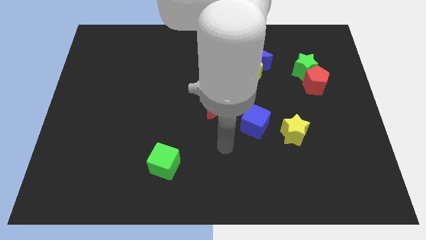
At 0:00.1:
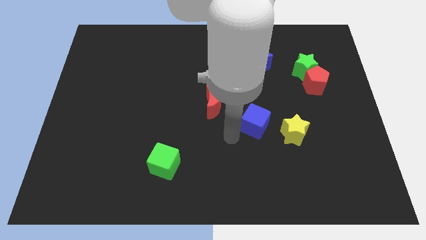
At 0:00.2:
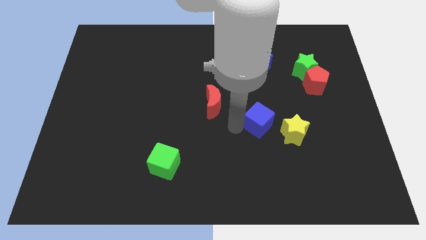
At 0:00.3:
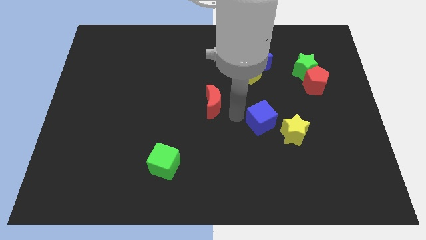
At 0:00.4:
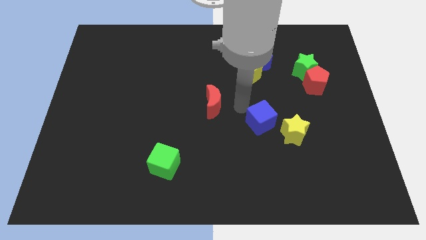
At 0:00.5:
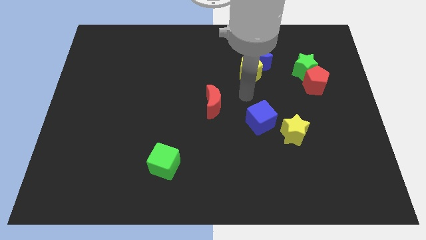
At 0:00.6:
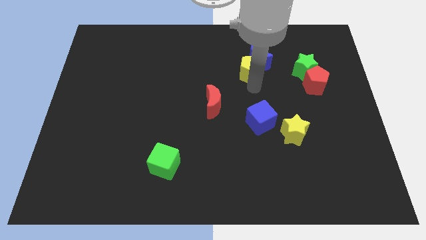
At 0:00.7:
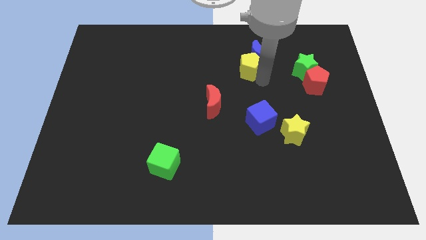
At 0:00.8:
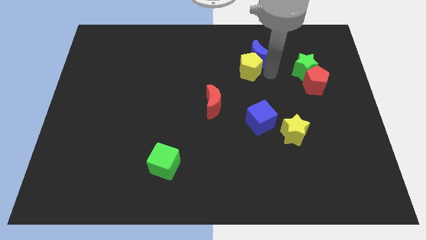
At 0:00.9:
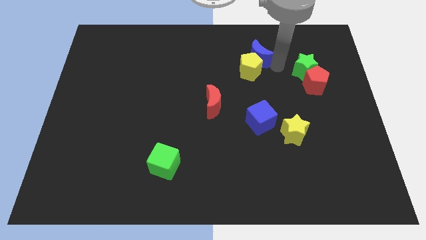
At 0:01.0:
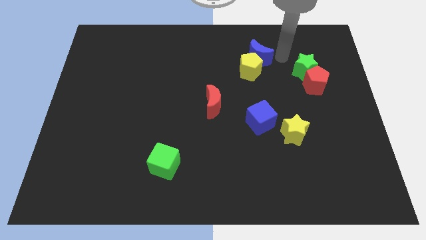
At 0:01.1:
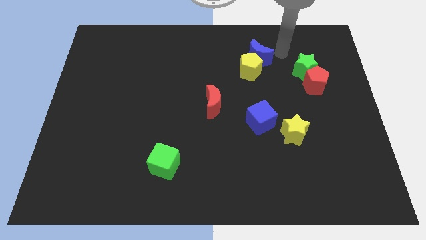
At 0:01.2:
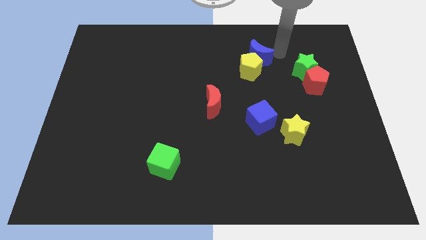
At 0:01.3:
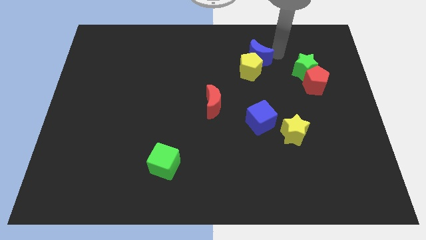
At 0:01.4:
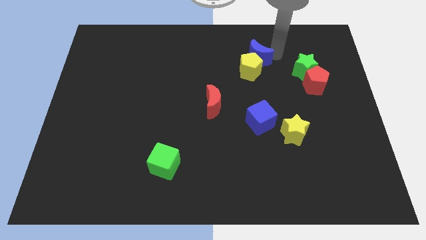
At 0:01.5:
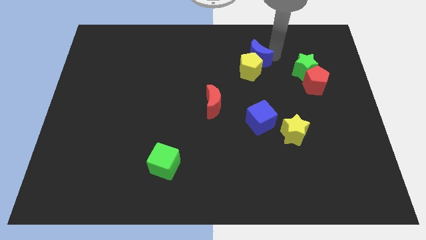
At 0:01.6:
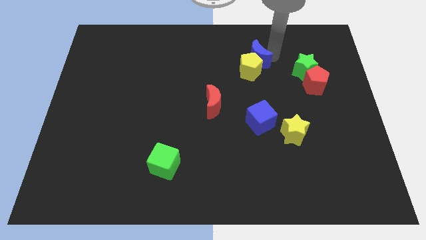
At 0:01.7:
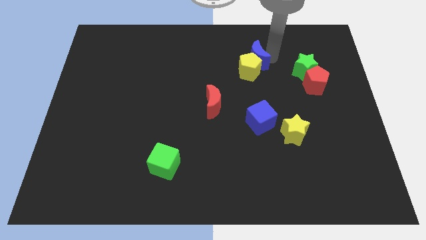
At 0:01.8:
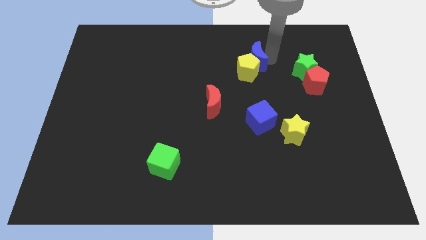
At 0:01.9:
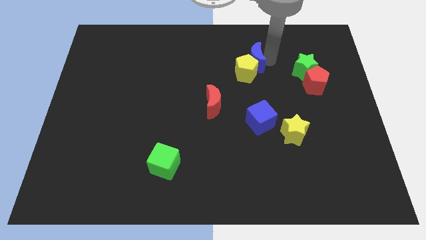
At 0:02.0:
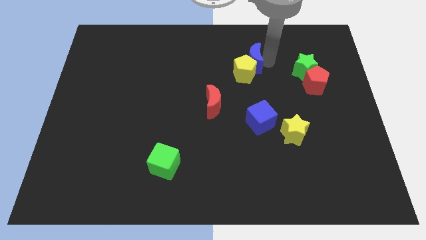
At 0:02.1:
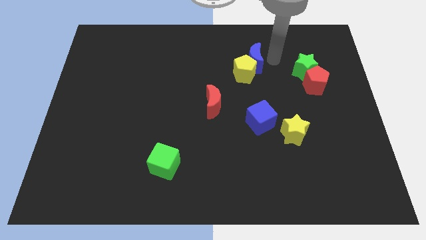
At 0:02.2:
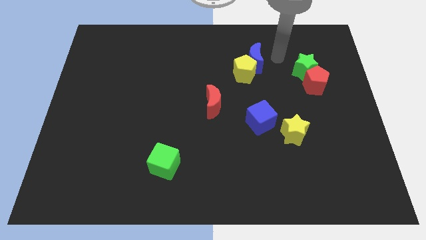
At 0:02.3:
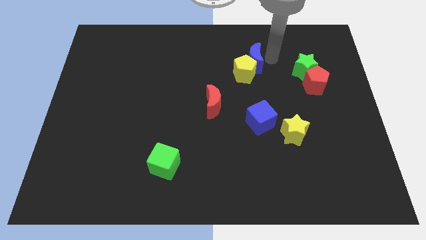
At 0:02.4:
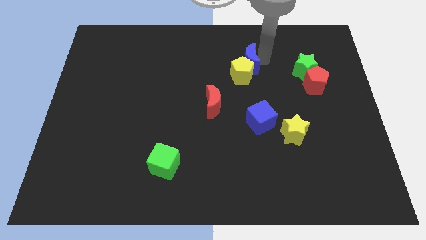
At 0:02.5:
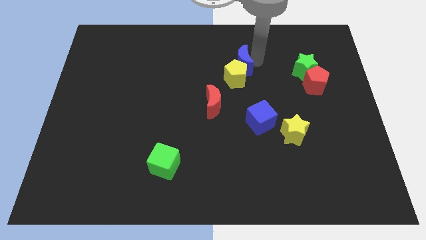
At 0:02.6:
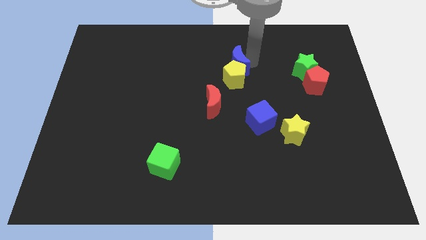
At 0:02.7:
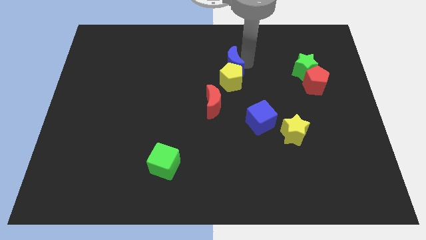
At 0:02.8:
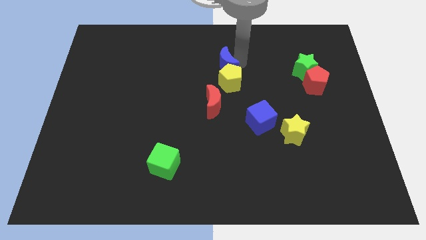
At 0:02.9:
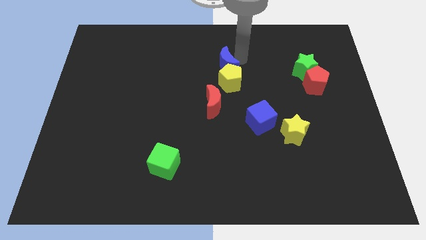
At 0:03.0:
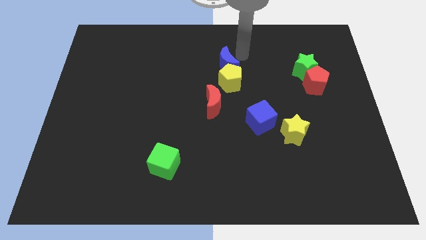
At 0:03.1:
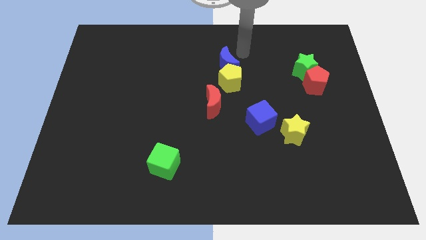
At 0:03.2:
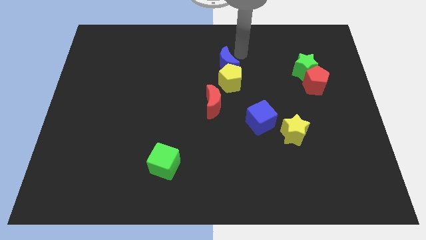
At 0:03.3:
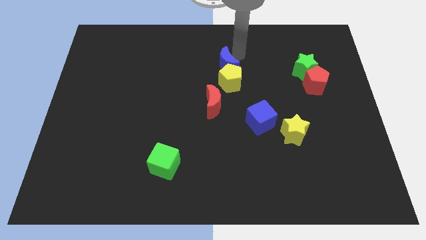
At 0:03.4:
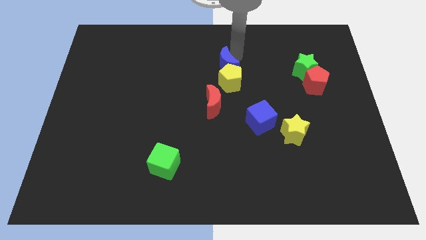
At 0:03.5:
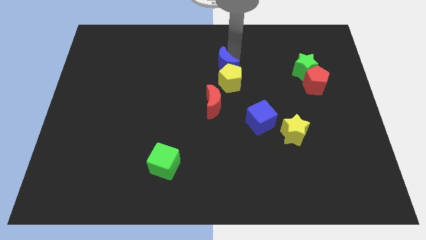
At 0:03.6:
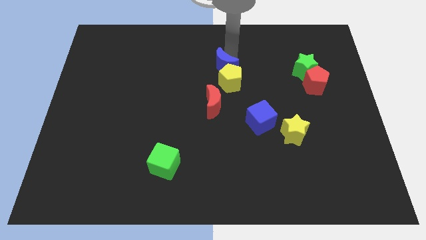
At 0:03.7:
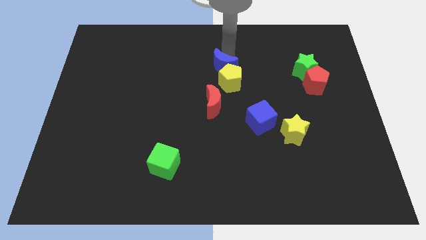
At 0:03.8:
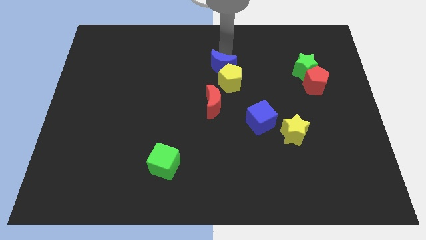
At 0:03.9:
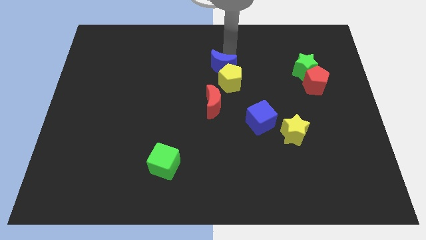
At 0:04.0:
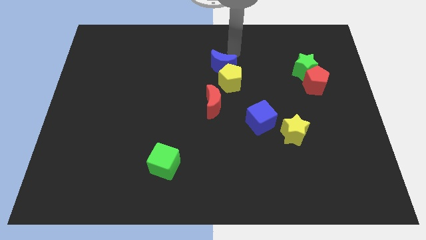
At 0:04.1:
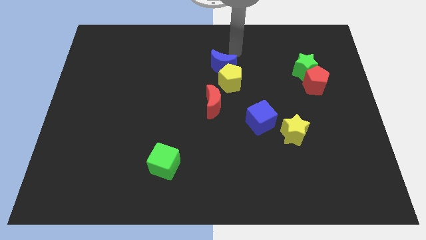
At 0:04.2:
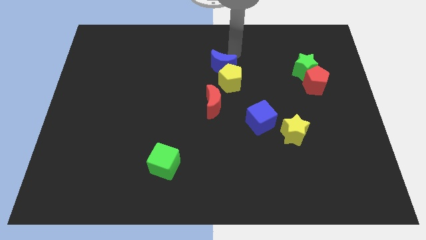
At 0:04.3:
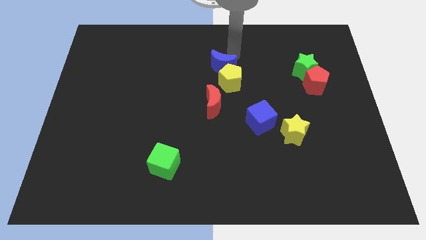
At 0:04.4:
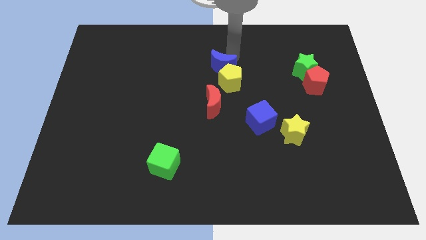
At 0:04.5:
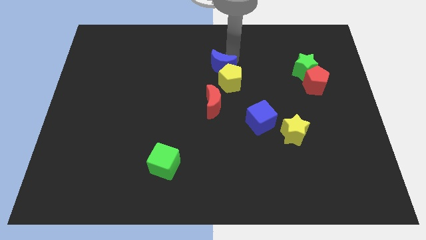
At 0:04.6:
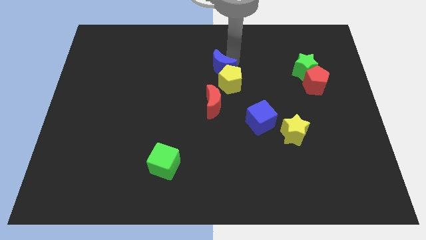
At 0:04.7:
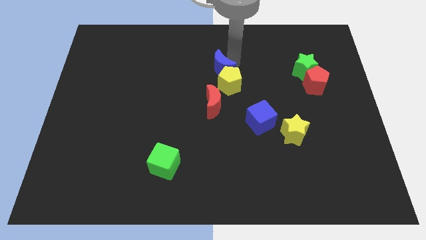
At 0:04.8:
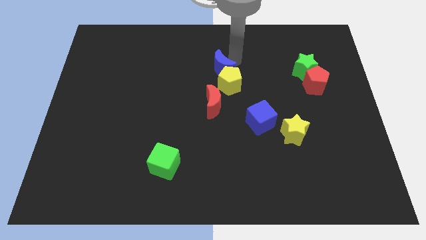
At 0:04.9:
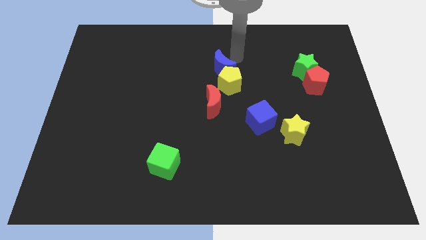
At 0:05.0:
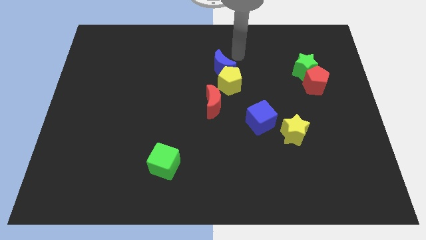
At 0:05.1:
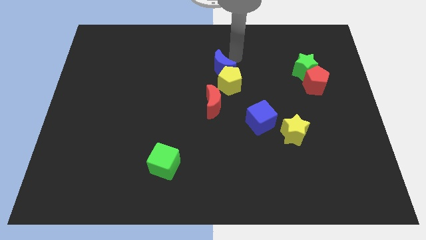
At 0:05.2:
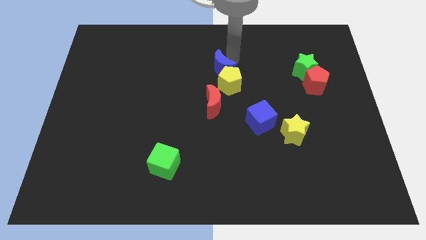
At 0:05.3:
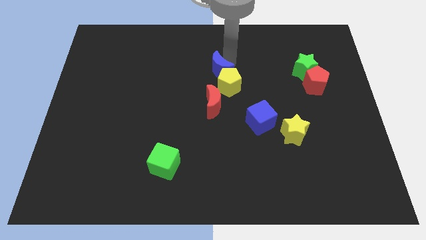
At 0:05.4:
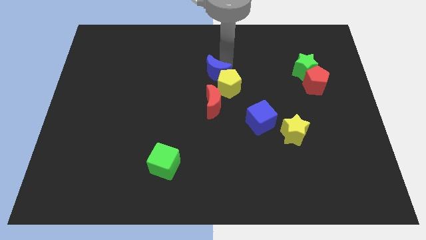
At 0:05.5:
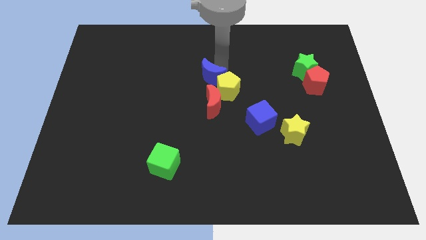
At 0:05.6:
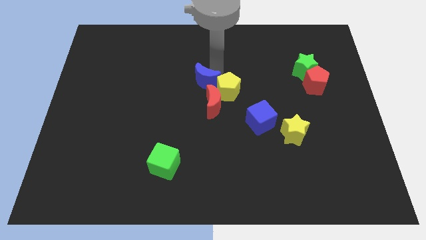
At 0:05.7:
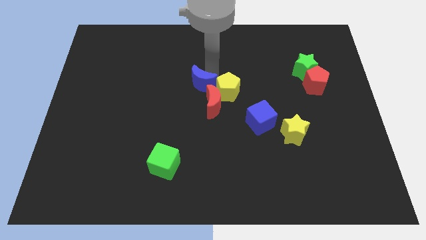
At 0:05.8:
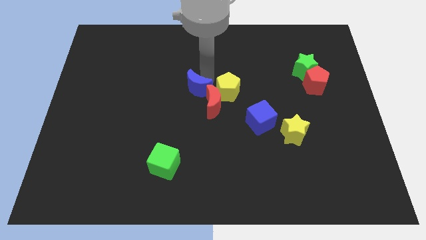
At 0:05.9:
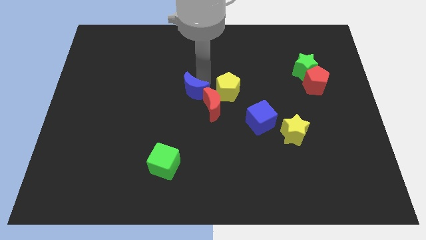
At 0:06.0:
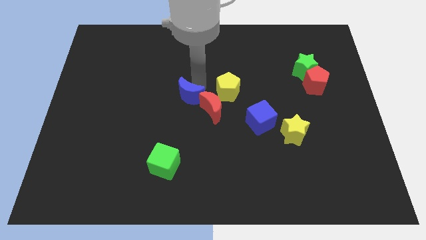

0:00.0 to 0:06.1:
slide the blue moon downwards and then to the left

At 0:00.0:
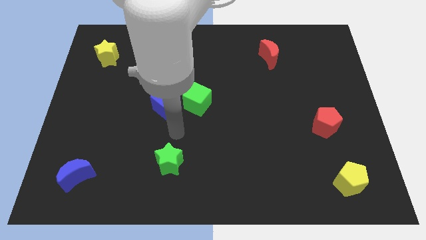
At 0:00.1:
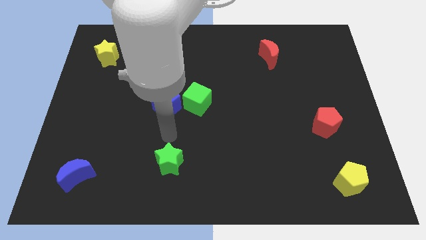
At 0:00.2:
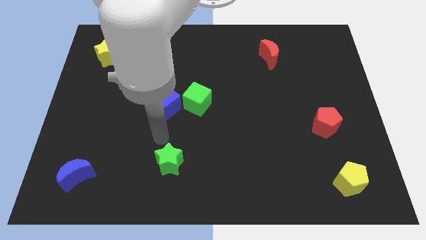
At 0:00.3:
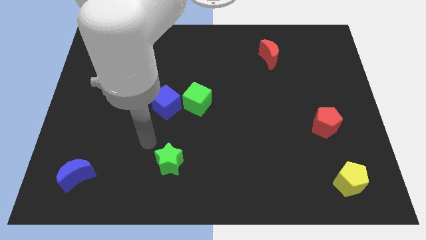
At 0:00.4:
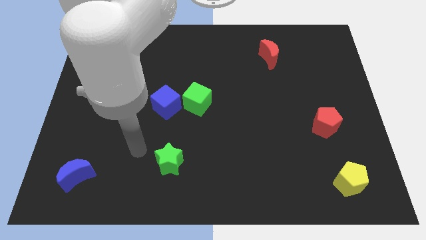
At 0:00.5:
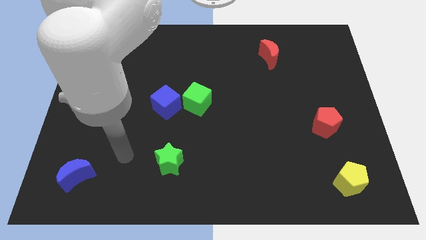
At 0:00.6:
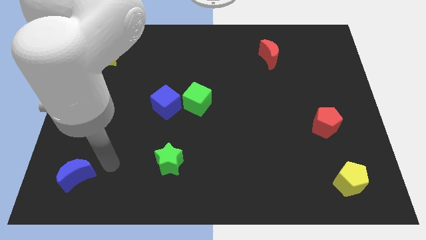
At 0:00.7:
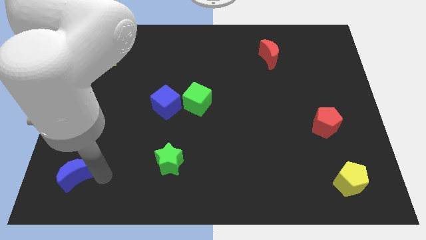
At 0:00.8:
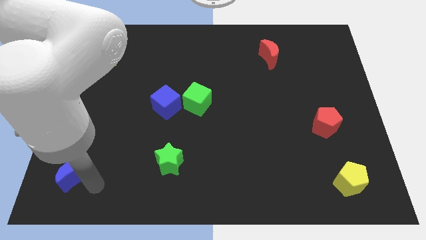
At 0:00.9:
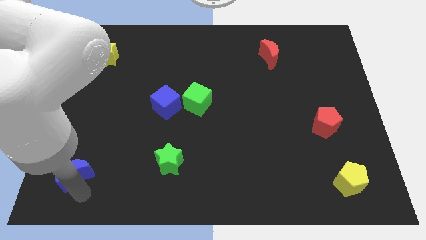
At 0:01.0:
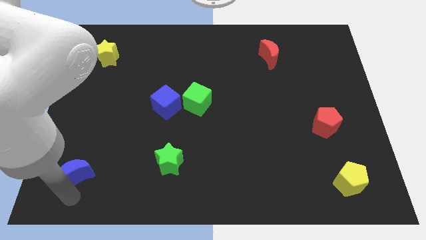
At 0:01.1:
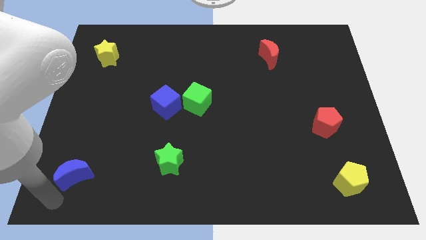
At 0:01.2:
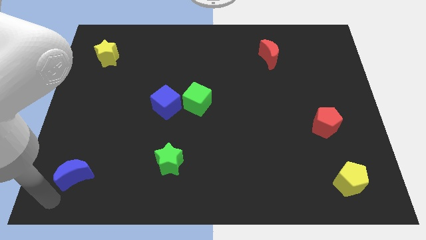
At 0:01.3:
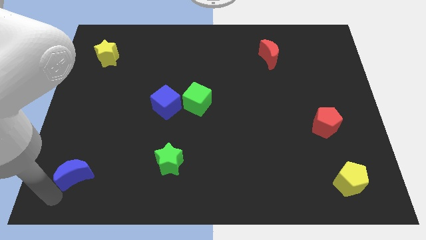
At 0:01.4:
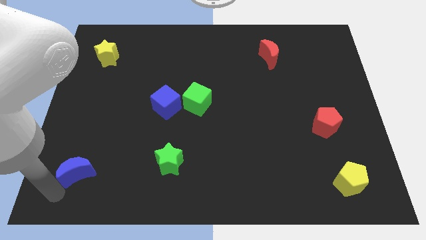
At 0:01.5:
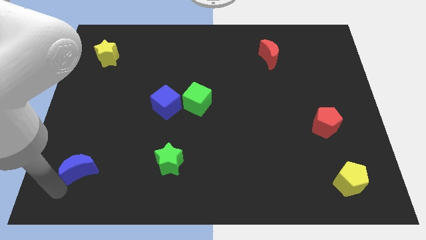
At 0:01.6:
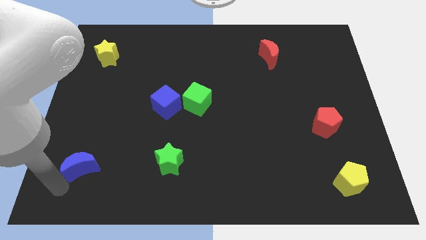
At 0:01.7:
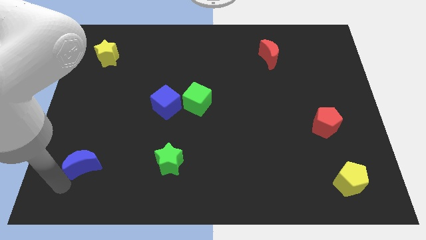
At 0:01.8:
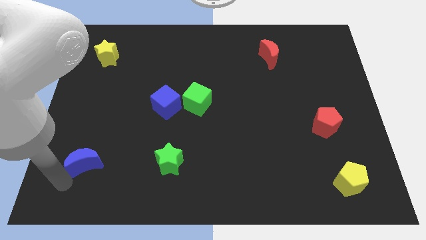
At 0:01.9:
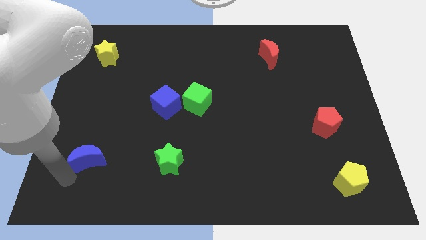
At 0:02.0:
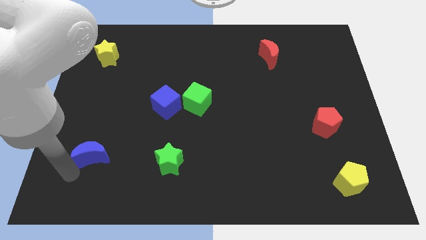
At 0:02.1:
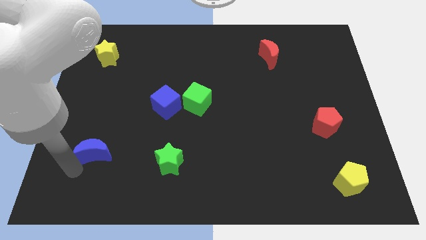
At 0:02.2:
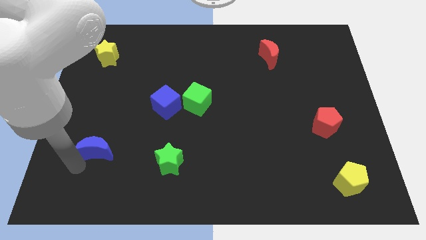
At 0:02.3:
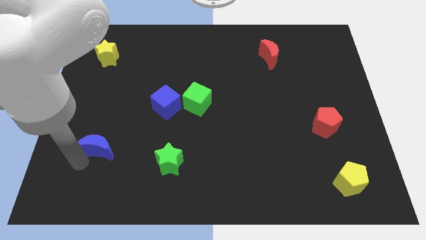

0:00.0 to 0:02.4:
slightly move the blue moon diagonally up and right
